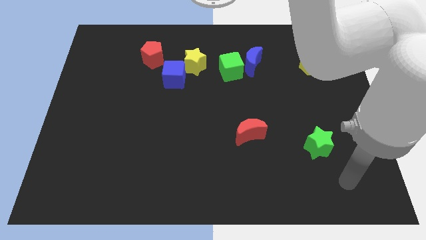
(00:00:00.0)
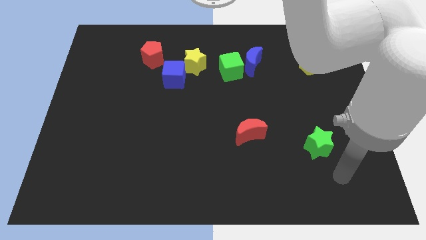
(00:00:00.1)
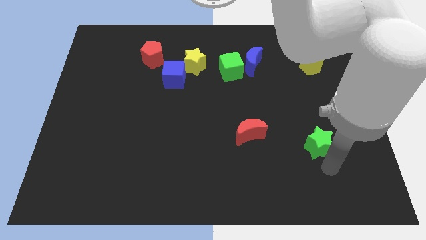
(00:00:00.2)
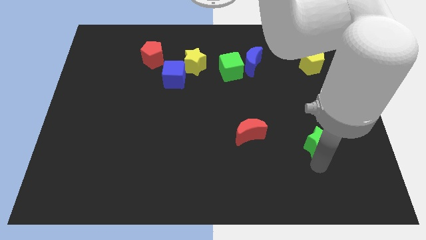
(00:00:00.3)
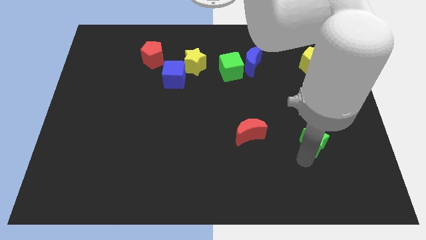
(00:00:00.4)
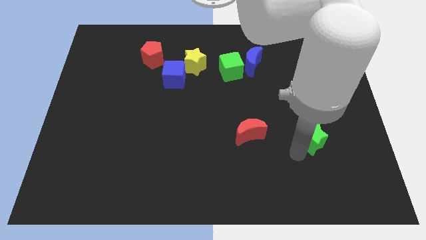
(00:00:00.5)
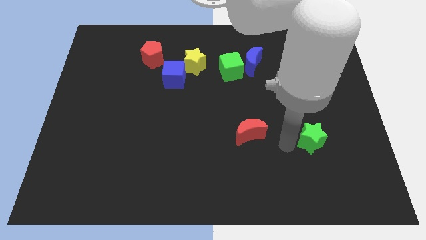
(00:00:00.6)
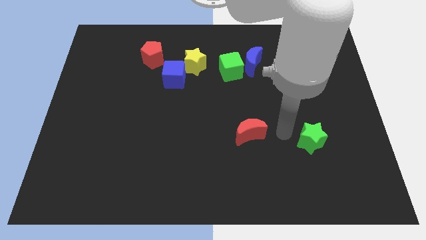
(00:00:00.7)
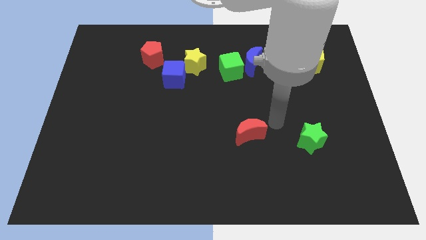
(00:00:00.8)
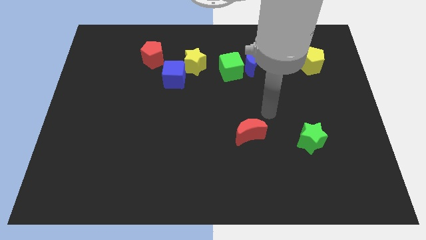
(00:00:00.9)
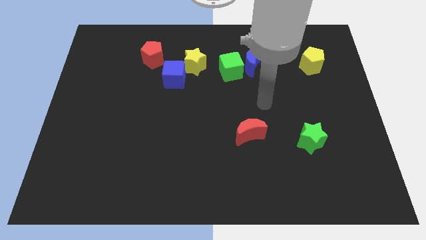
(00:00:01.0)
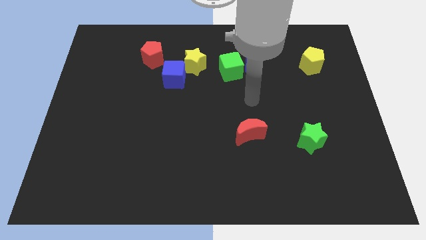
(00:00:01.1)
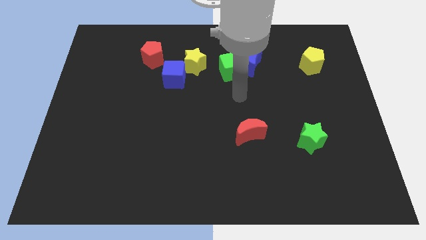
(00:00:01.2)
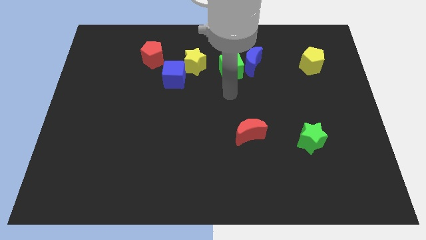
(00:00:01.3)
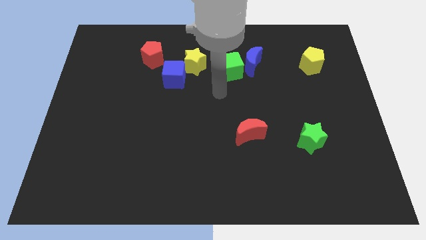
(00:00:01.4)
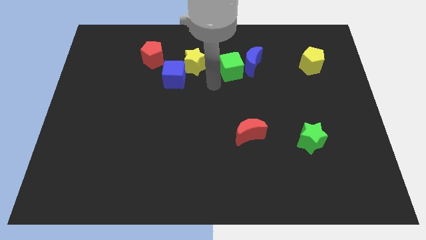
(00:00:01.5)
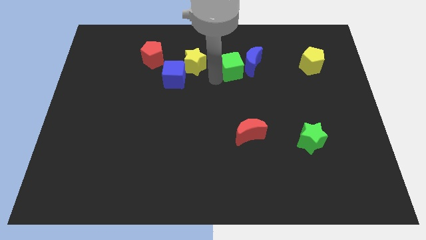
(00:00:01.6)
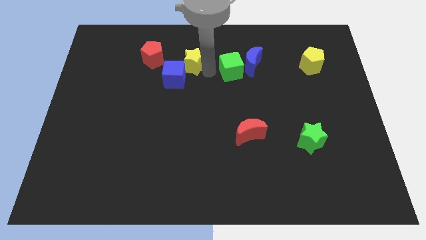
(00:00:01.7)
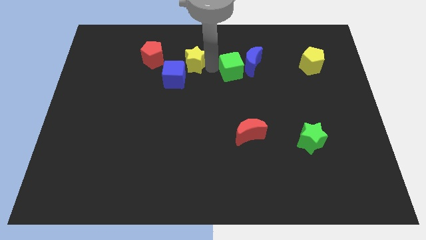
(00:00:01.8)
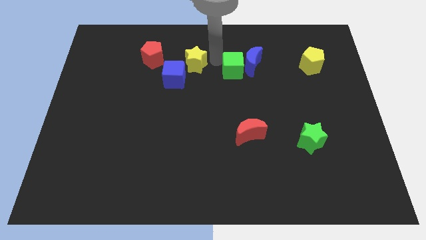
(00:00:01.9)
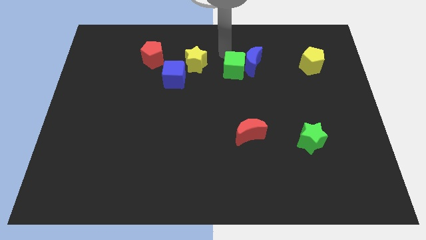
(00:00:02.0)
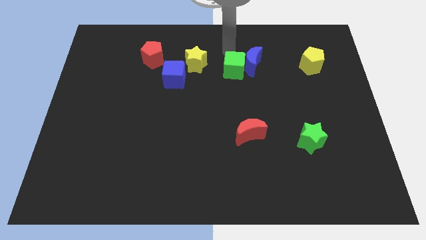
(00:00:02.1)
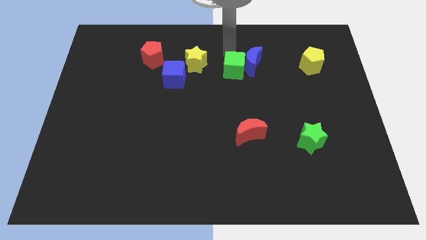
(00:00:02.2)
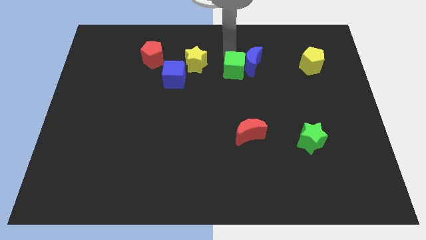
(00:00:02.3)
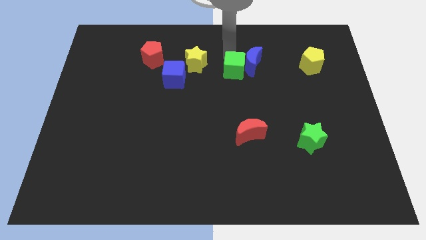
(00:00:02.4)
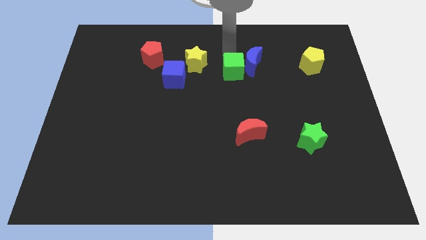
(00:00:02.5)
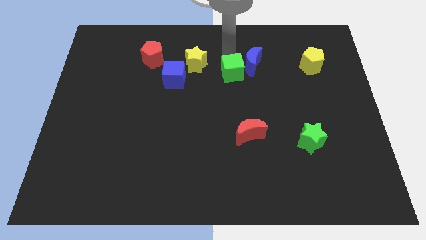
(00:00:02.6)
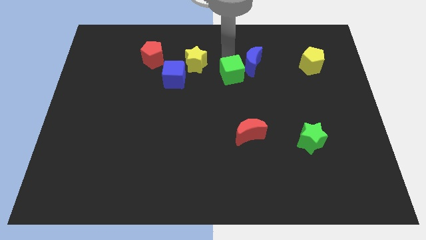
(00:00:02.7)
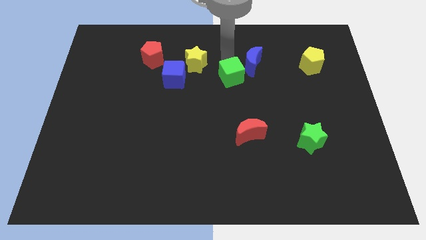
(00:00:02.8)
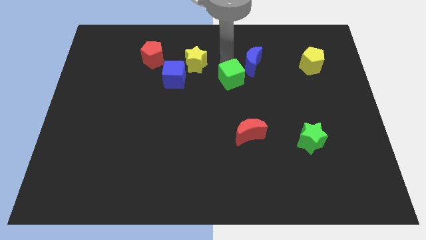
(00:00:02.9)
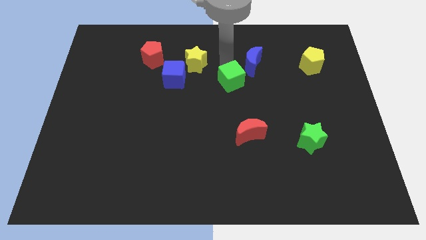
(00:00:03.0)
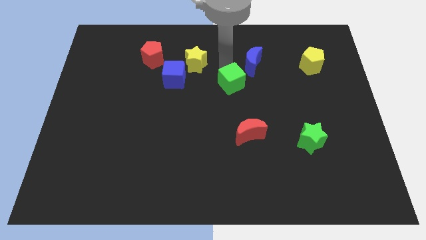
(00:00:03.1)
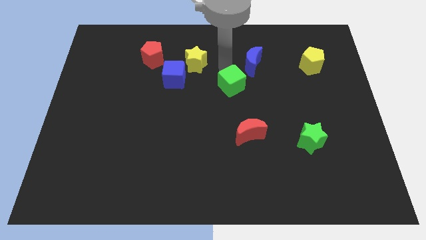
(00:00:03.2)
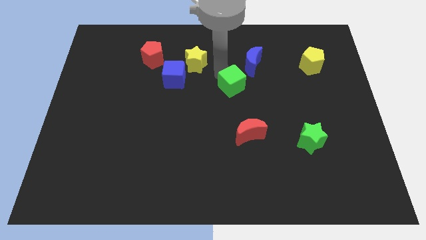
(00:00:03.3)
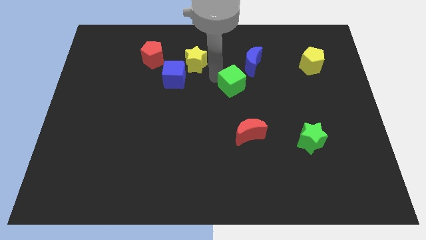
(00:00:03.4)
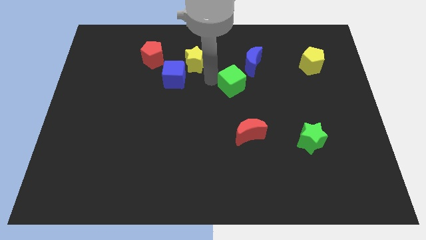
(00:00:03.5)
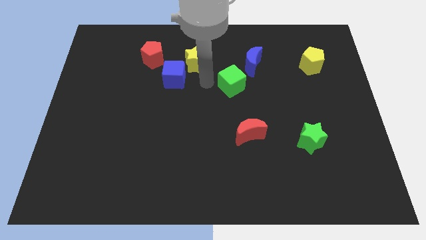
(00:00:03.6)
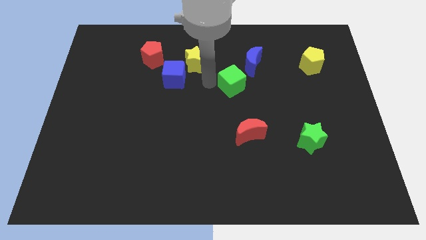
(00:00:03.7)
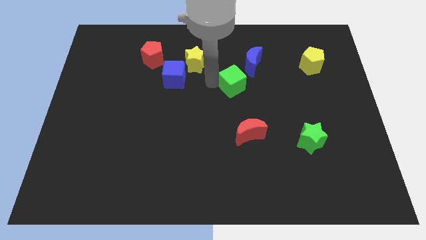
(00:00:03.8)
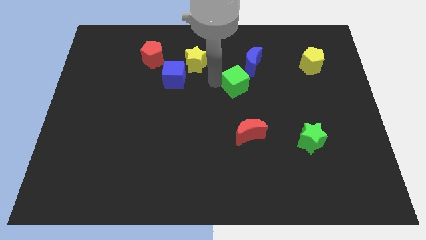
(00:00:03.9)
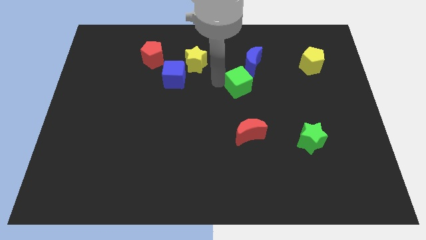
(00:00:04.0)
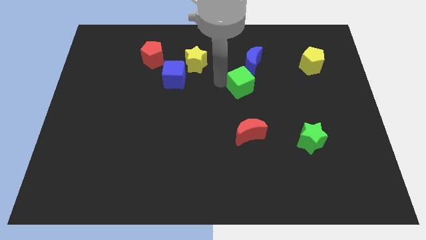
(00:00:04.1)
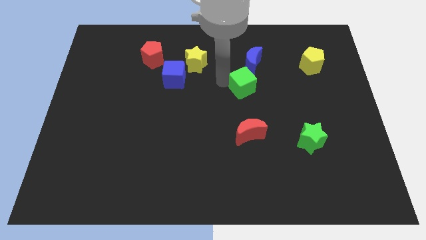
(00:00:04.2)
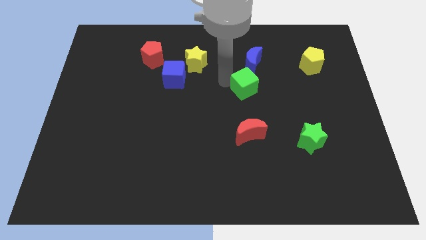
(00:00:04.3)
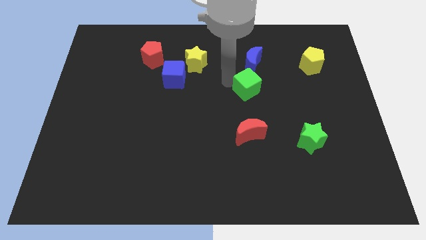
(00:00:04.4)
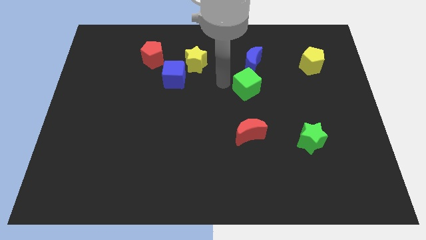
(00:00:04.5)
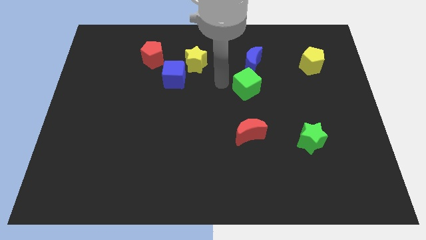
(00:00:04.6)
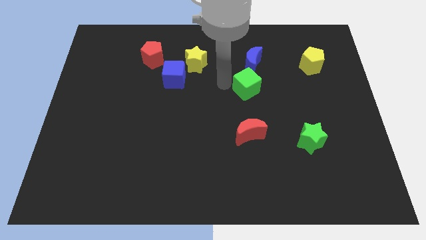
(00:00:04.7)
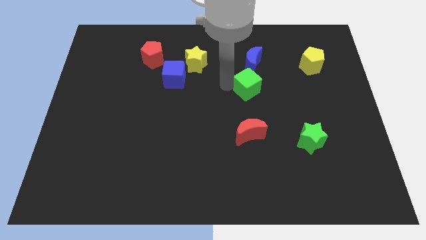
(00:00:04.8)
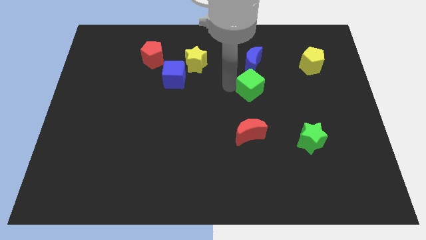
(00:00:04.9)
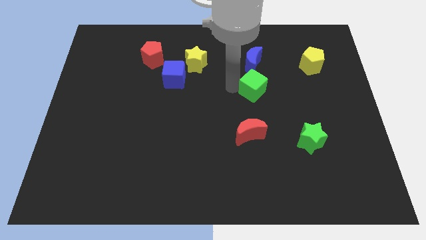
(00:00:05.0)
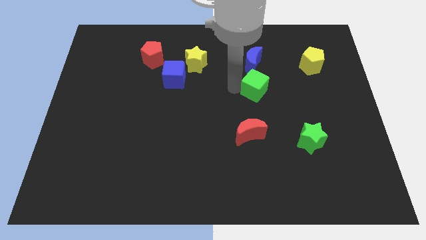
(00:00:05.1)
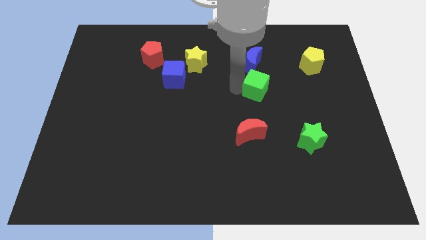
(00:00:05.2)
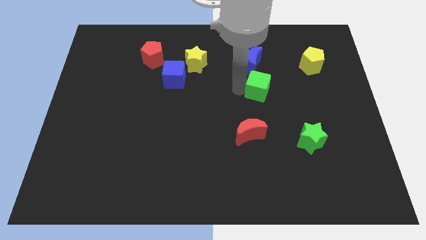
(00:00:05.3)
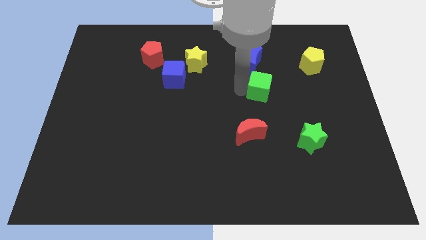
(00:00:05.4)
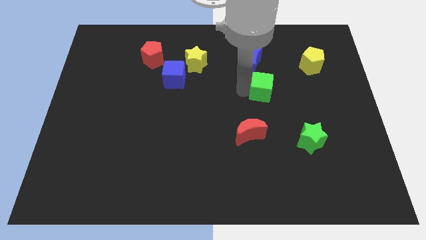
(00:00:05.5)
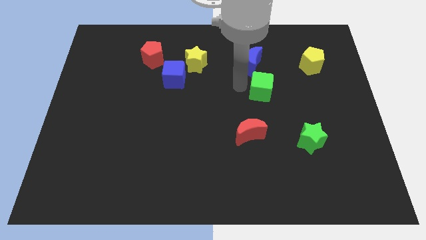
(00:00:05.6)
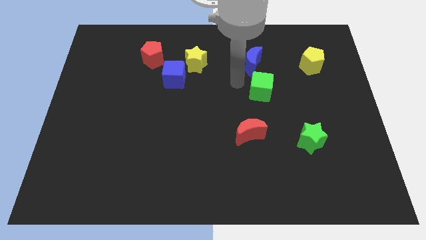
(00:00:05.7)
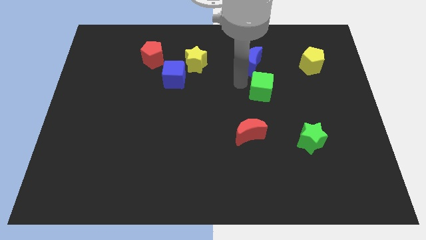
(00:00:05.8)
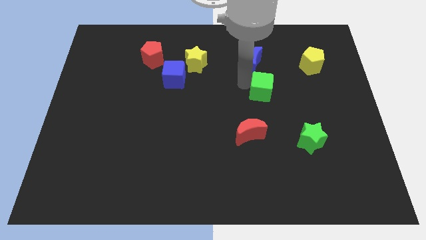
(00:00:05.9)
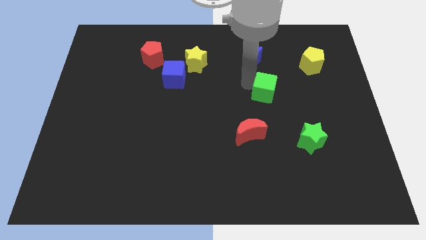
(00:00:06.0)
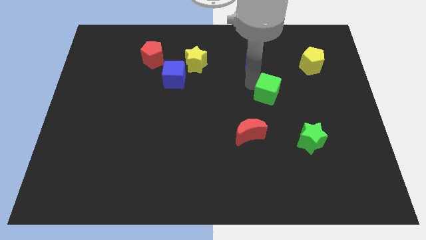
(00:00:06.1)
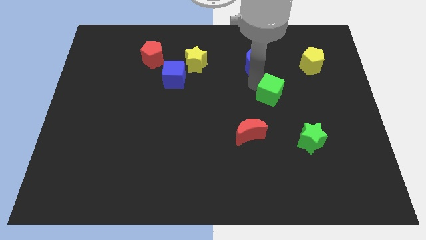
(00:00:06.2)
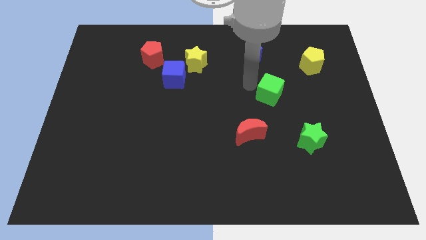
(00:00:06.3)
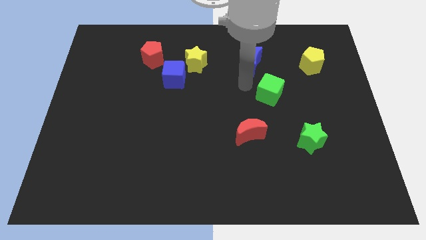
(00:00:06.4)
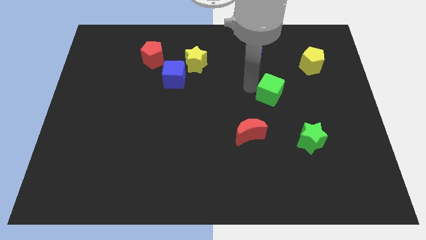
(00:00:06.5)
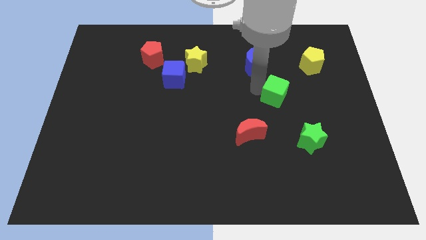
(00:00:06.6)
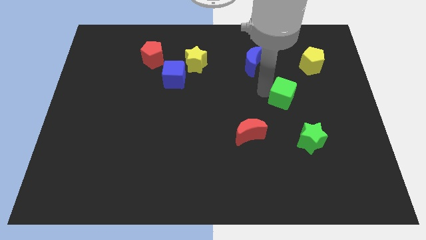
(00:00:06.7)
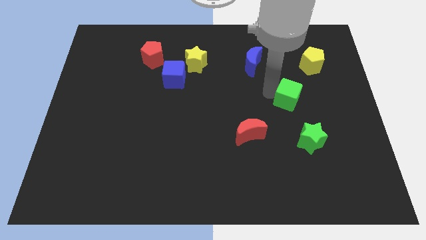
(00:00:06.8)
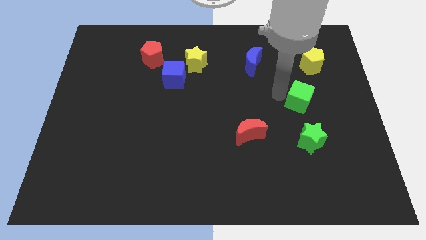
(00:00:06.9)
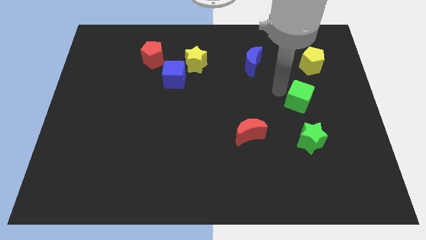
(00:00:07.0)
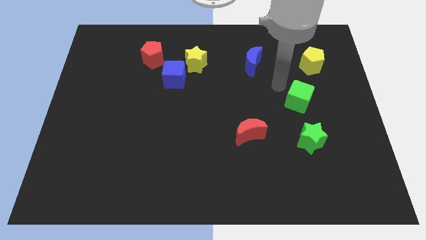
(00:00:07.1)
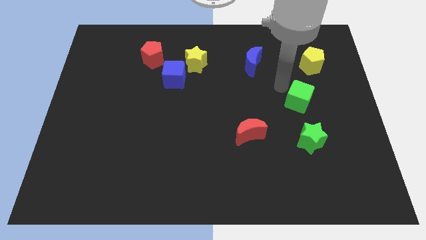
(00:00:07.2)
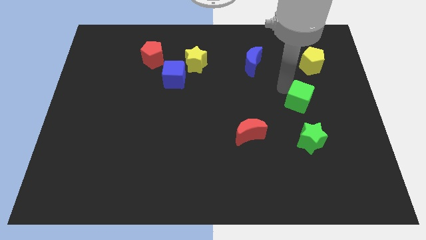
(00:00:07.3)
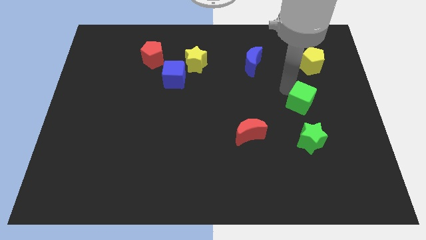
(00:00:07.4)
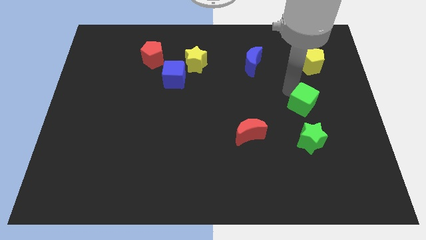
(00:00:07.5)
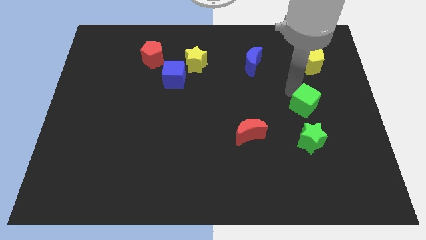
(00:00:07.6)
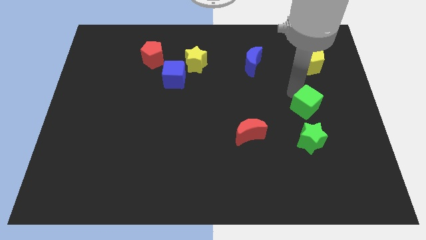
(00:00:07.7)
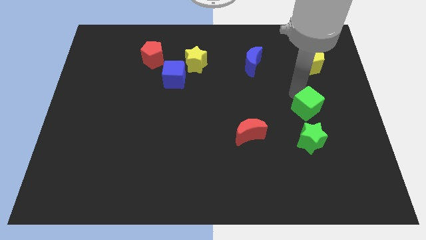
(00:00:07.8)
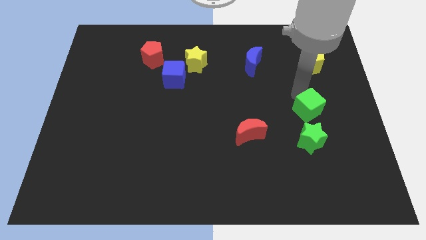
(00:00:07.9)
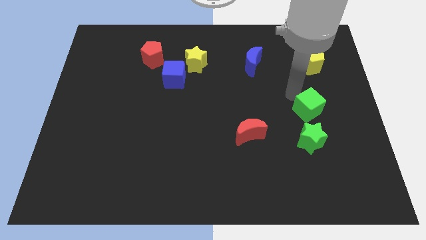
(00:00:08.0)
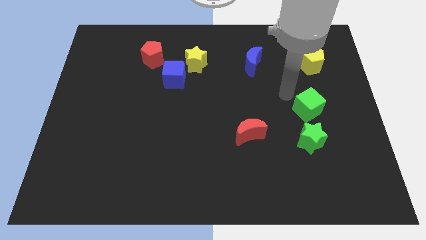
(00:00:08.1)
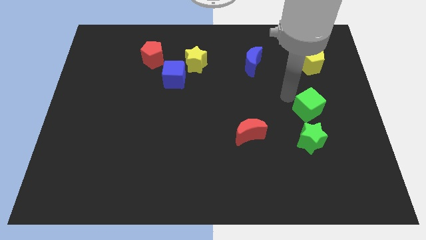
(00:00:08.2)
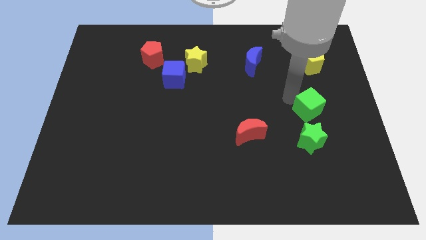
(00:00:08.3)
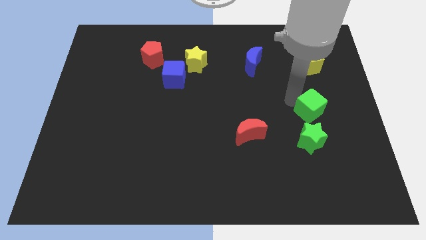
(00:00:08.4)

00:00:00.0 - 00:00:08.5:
slide the green cube to the top right side of the green star
